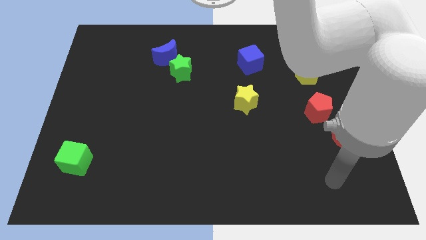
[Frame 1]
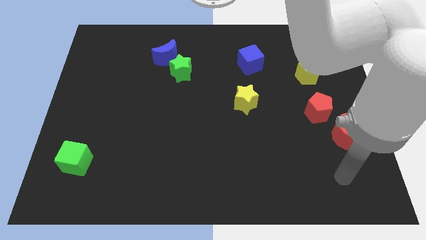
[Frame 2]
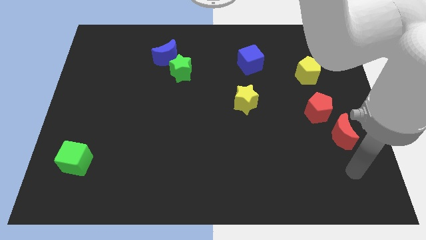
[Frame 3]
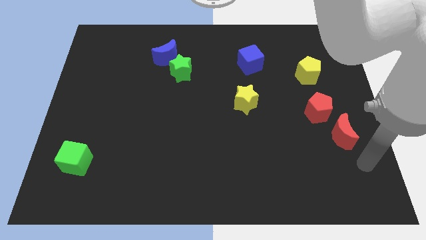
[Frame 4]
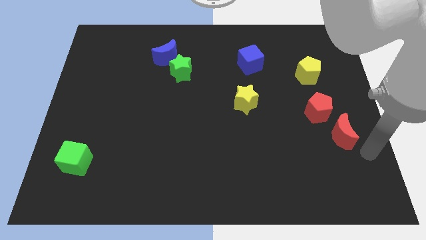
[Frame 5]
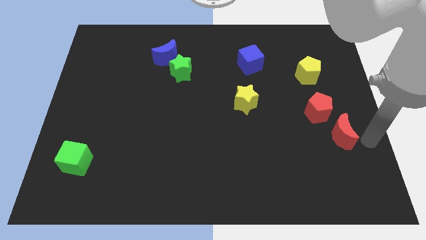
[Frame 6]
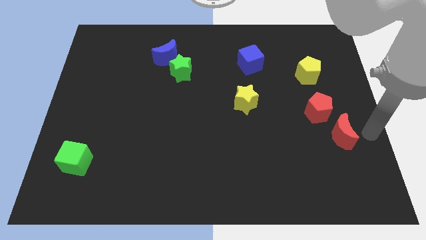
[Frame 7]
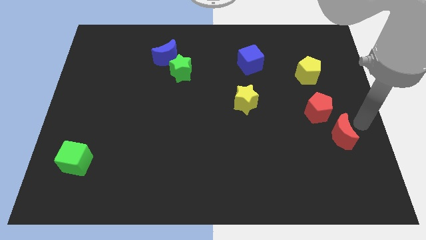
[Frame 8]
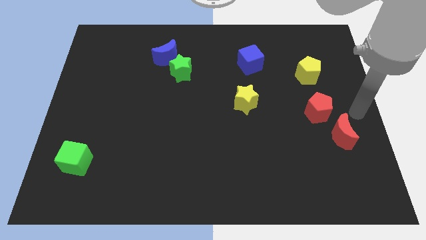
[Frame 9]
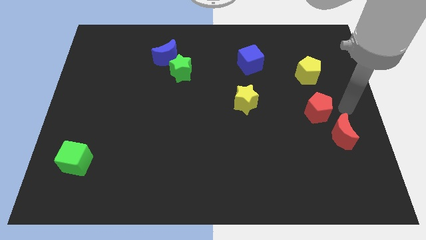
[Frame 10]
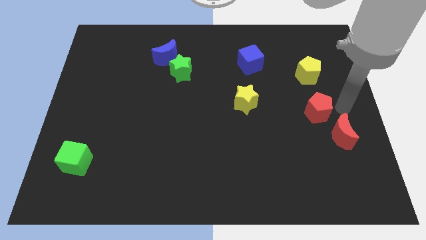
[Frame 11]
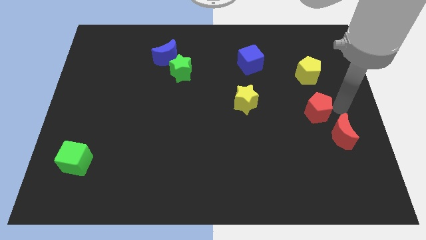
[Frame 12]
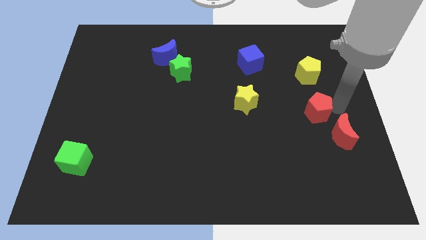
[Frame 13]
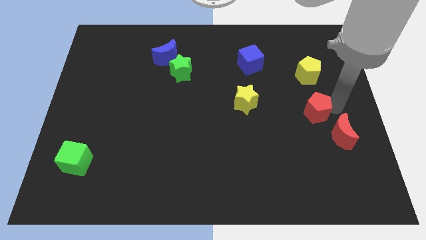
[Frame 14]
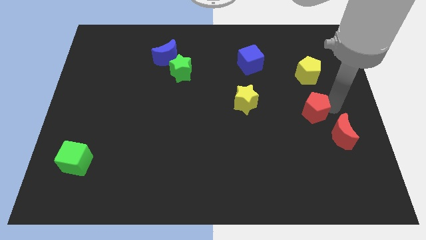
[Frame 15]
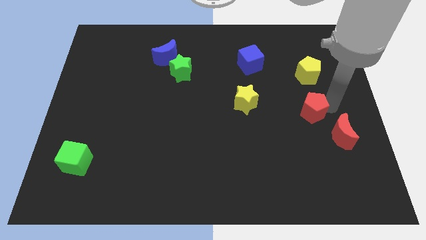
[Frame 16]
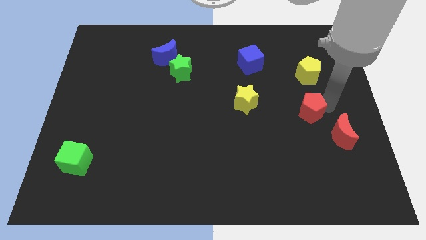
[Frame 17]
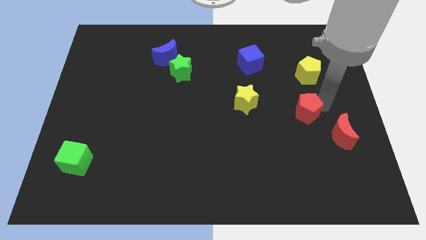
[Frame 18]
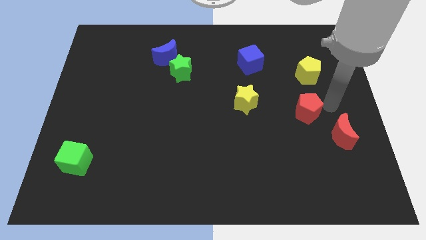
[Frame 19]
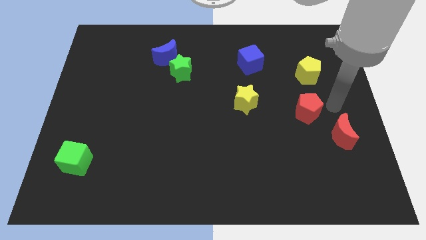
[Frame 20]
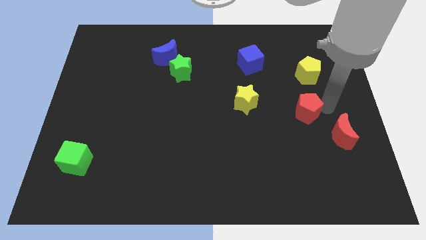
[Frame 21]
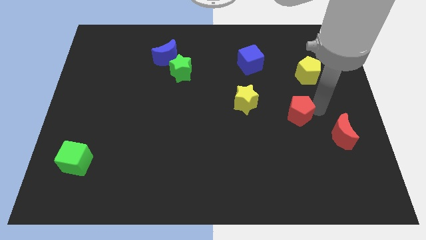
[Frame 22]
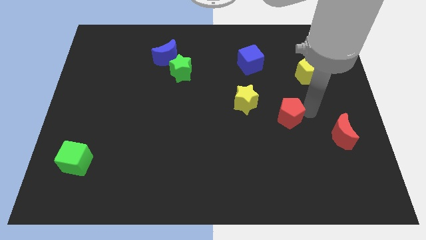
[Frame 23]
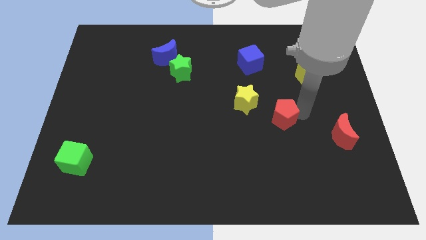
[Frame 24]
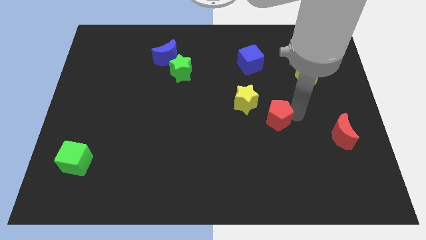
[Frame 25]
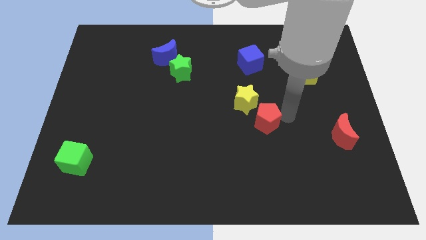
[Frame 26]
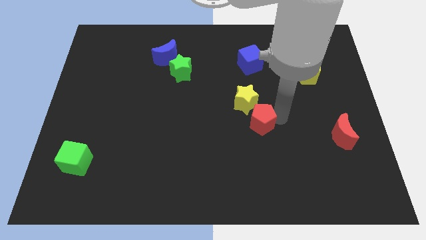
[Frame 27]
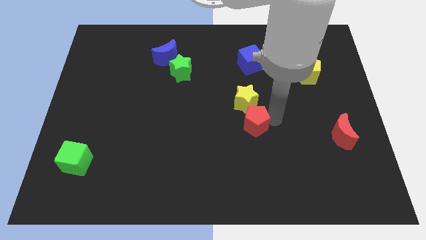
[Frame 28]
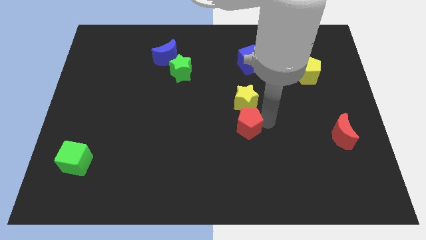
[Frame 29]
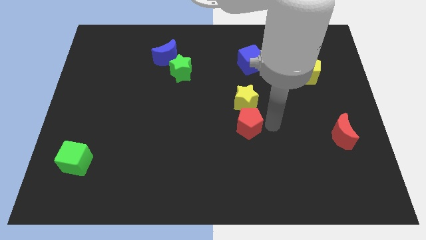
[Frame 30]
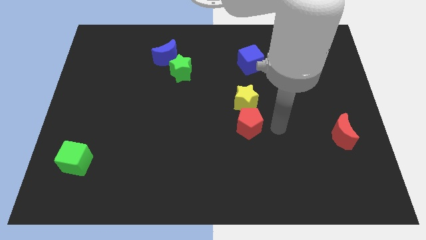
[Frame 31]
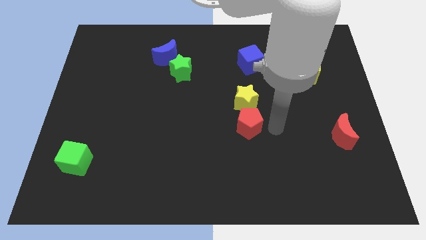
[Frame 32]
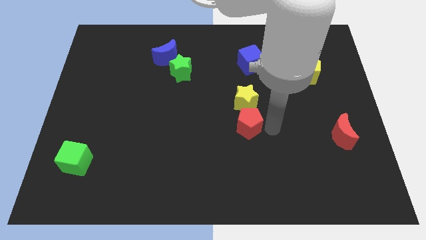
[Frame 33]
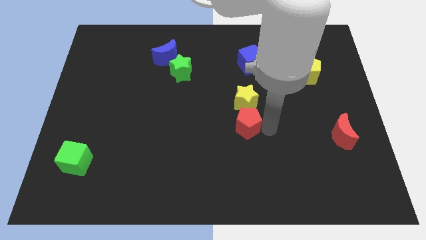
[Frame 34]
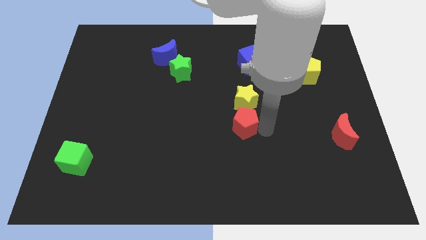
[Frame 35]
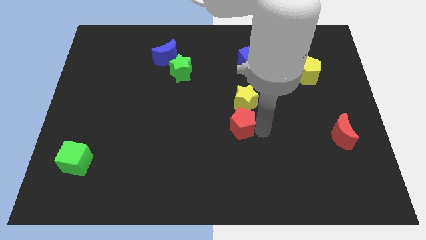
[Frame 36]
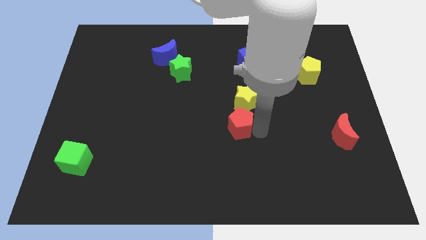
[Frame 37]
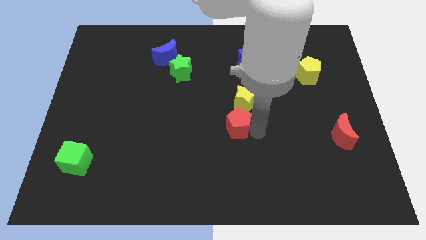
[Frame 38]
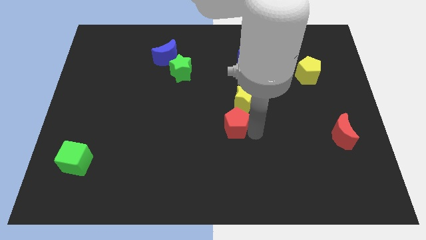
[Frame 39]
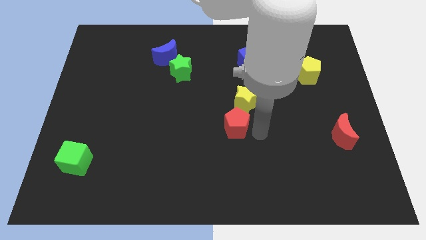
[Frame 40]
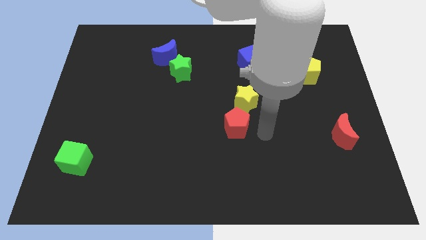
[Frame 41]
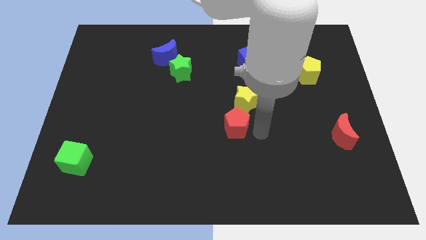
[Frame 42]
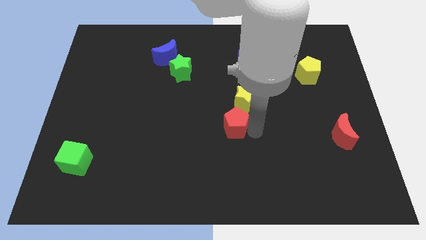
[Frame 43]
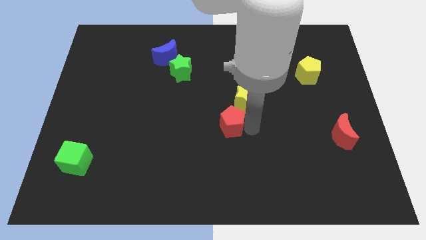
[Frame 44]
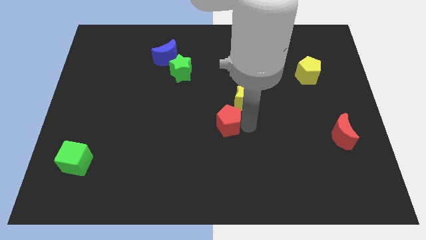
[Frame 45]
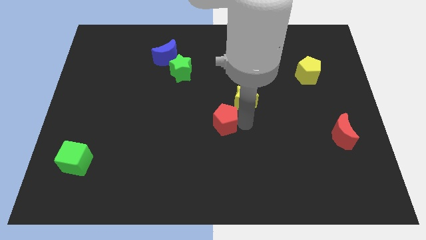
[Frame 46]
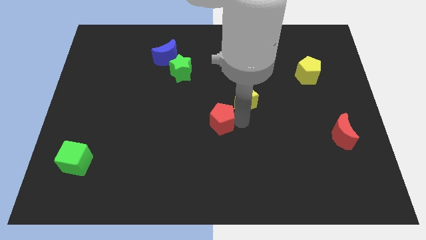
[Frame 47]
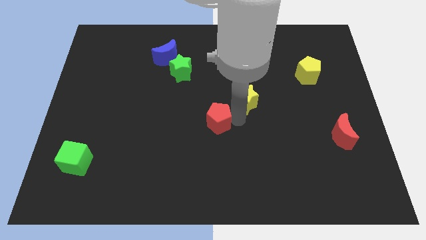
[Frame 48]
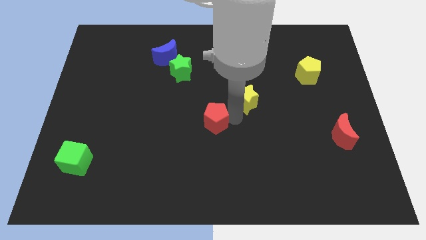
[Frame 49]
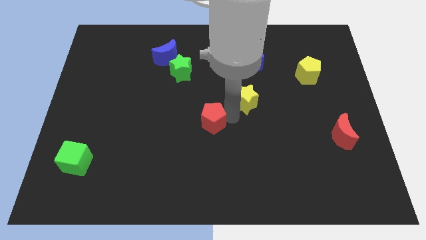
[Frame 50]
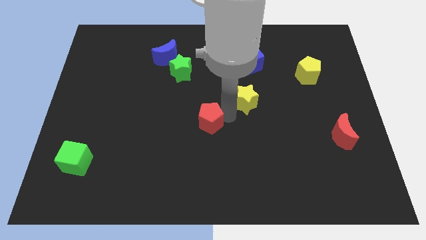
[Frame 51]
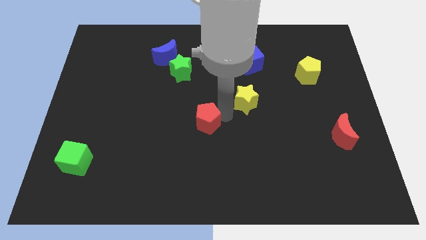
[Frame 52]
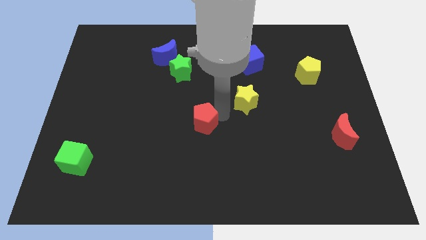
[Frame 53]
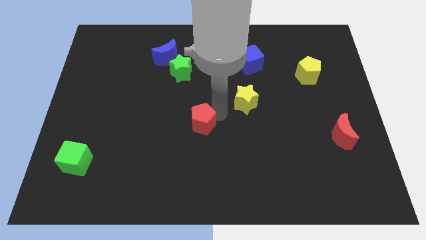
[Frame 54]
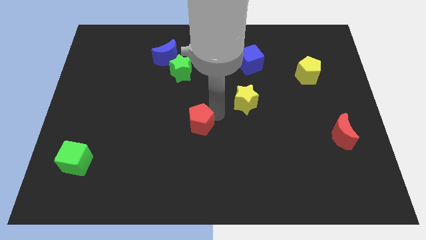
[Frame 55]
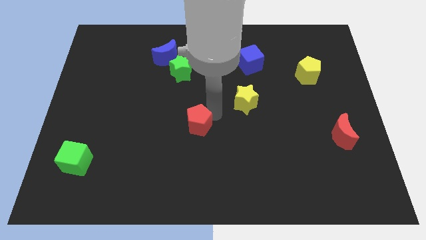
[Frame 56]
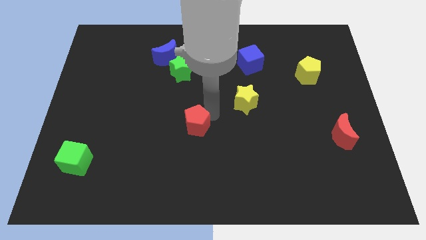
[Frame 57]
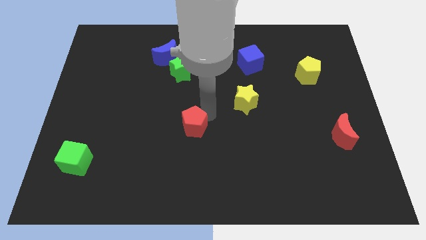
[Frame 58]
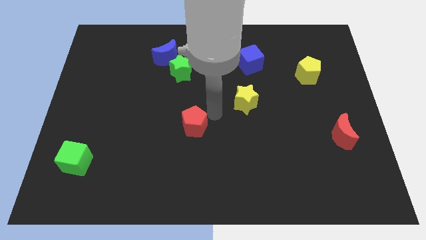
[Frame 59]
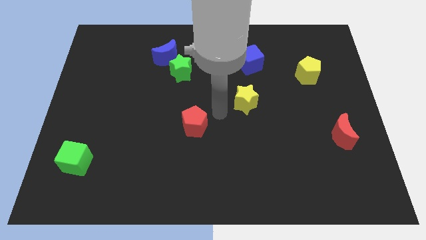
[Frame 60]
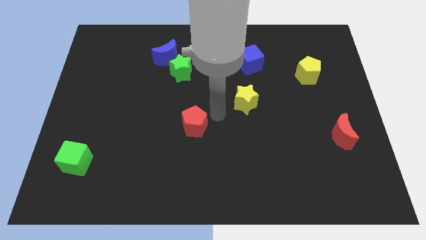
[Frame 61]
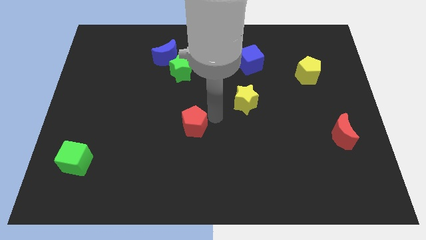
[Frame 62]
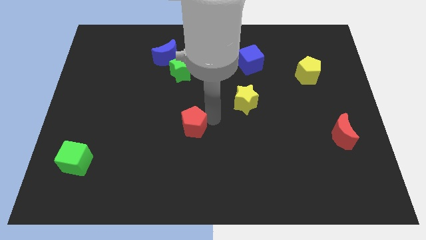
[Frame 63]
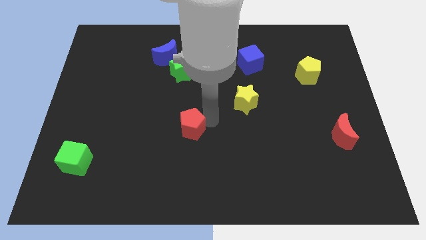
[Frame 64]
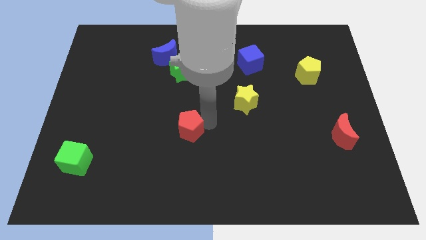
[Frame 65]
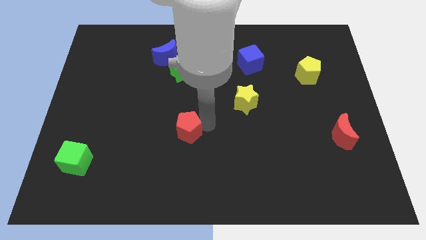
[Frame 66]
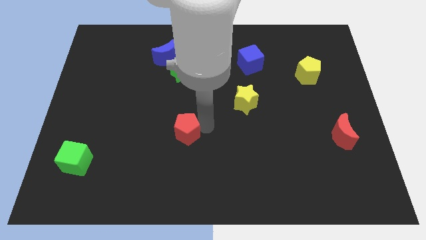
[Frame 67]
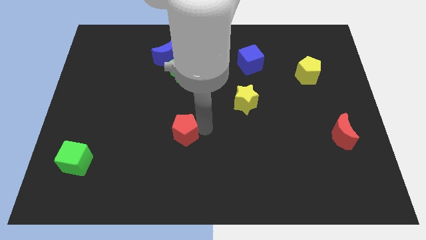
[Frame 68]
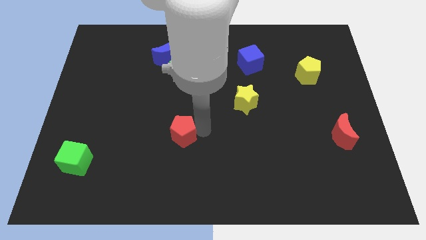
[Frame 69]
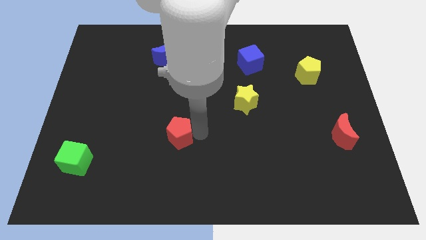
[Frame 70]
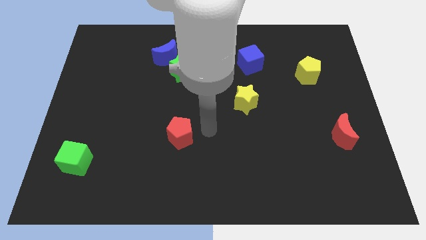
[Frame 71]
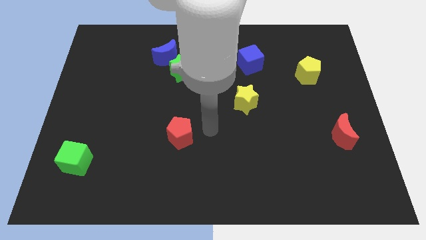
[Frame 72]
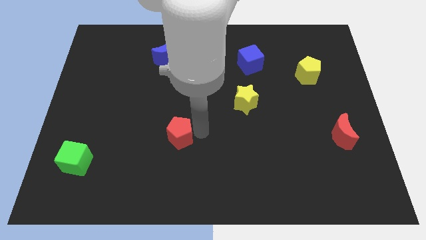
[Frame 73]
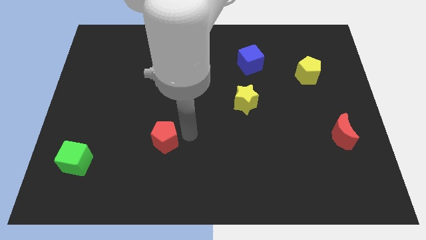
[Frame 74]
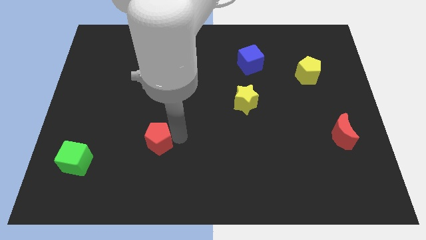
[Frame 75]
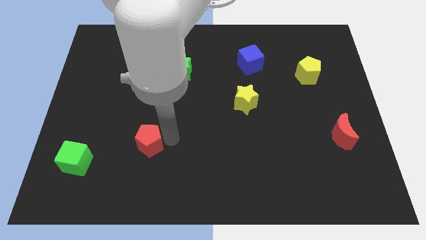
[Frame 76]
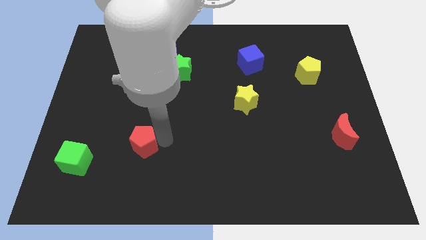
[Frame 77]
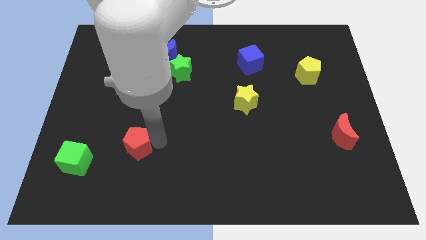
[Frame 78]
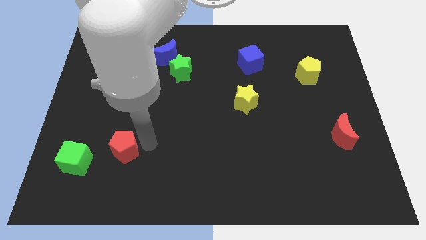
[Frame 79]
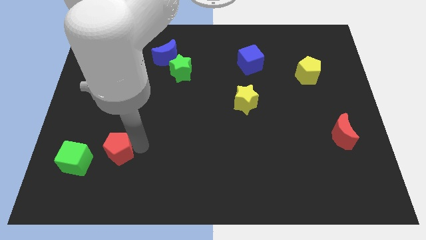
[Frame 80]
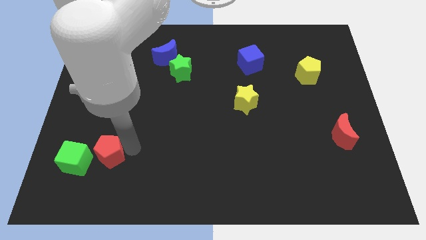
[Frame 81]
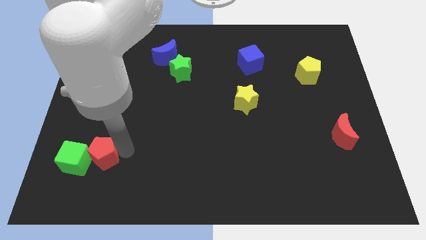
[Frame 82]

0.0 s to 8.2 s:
push the red pentagon towards the green cube
